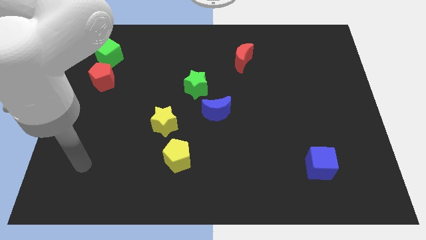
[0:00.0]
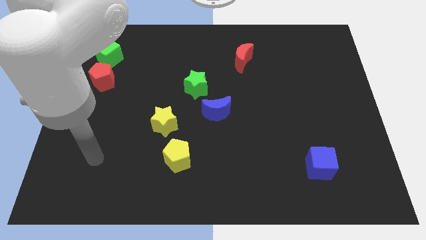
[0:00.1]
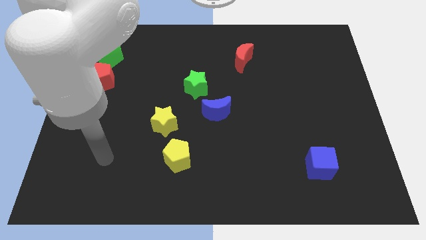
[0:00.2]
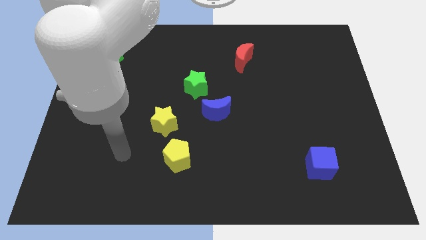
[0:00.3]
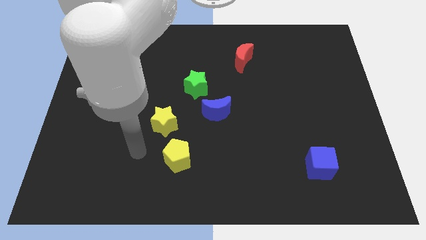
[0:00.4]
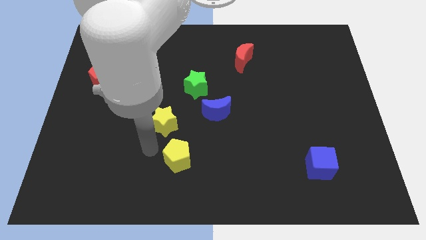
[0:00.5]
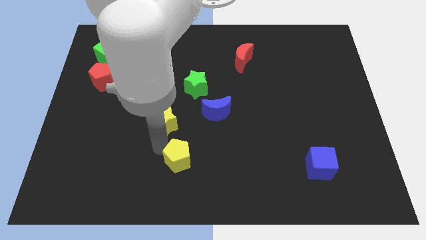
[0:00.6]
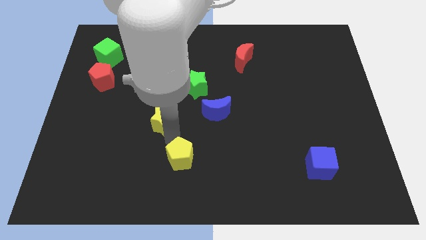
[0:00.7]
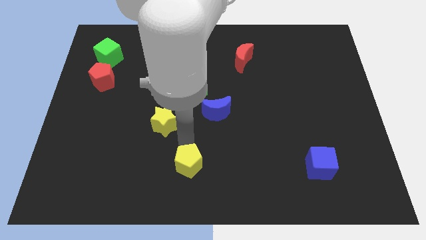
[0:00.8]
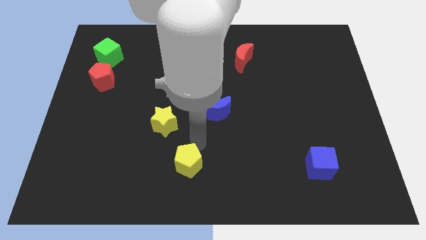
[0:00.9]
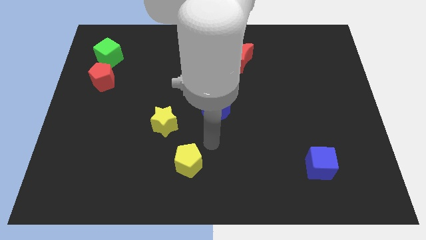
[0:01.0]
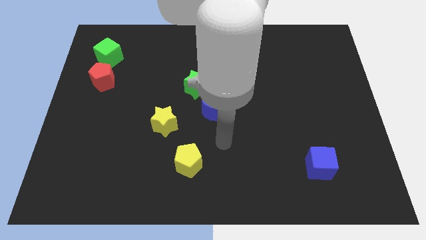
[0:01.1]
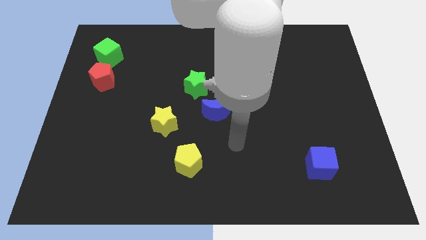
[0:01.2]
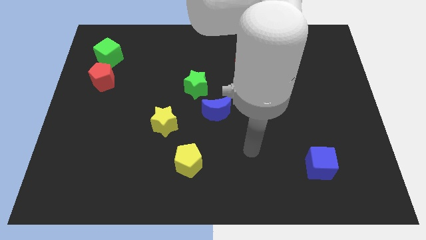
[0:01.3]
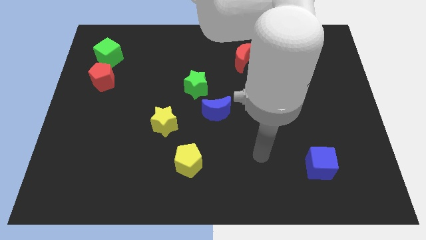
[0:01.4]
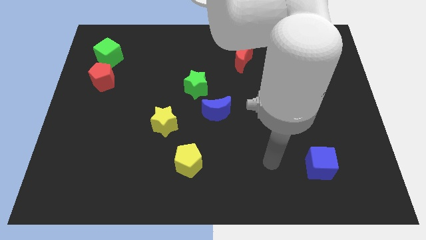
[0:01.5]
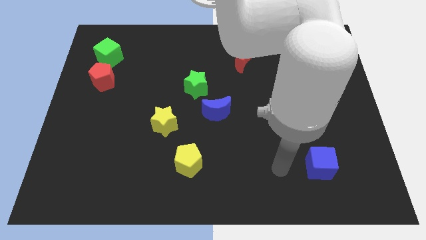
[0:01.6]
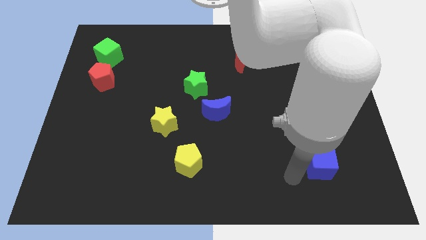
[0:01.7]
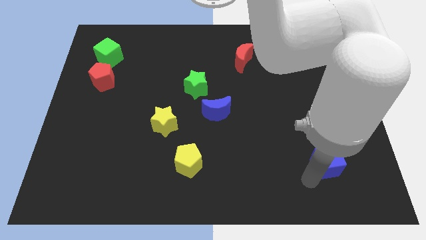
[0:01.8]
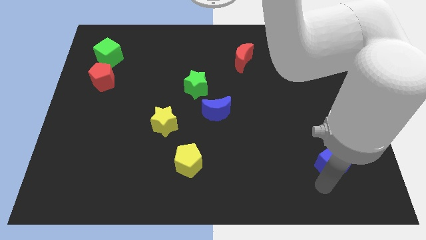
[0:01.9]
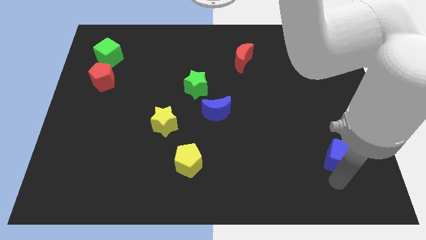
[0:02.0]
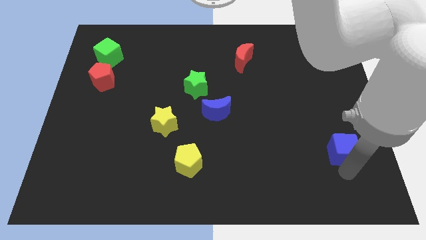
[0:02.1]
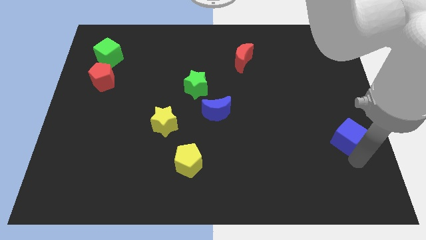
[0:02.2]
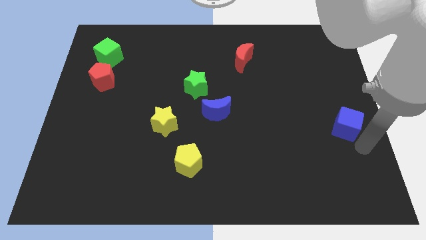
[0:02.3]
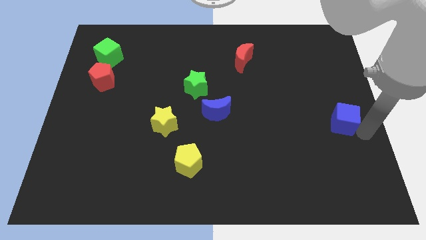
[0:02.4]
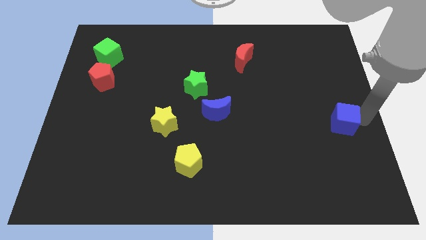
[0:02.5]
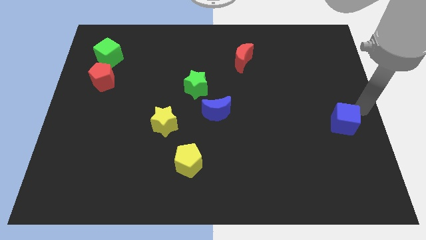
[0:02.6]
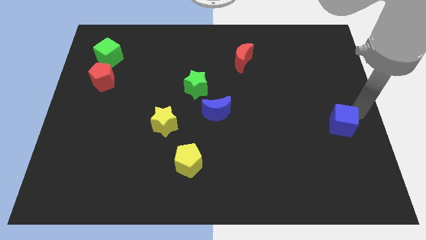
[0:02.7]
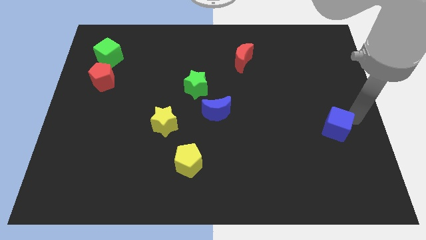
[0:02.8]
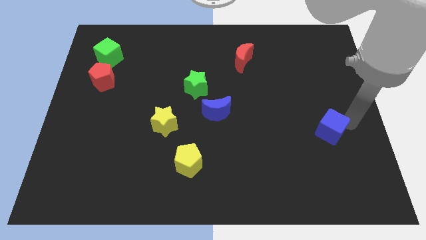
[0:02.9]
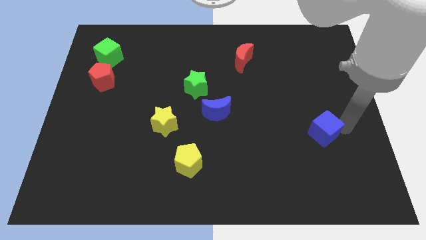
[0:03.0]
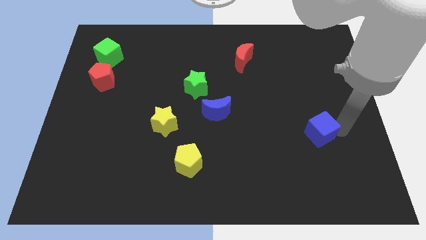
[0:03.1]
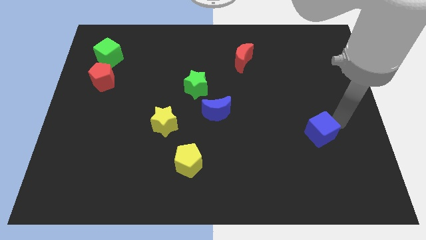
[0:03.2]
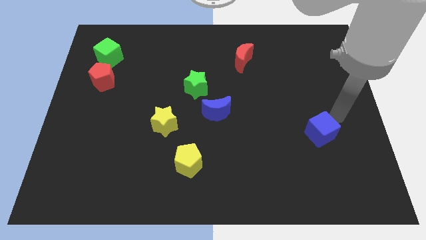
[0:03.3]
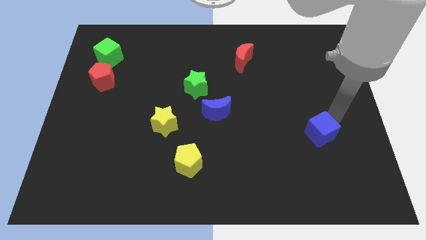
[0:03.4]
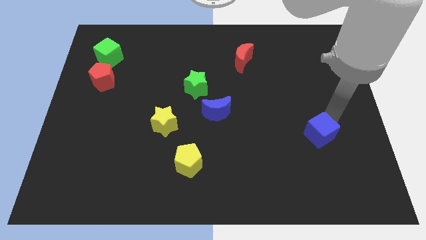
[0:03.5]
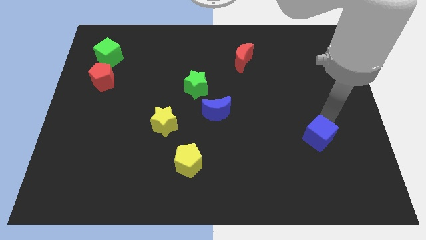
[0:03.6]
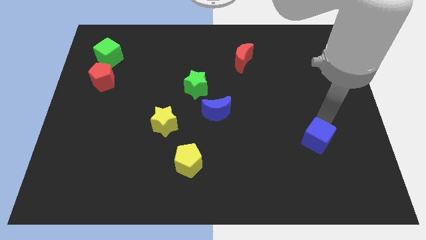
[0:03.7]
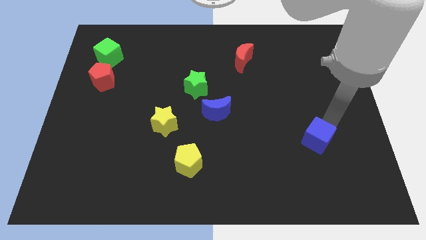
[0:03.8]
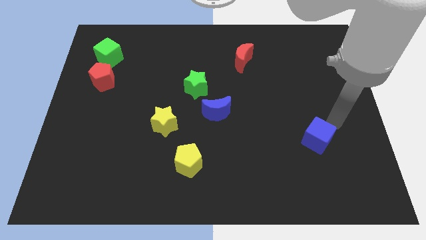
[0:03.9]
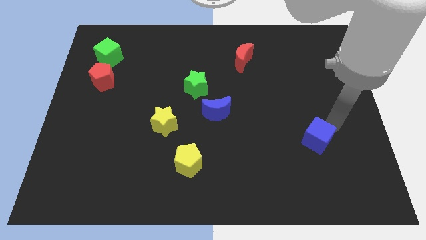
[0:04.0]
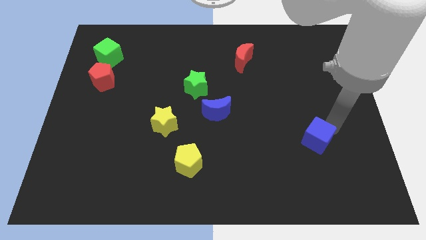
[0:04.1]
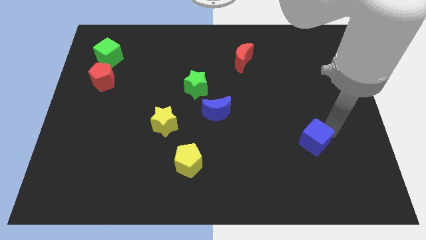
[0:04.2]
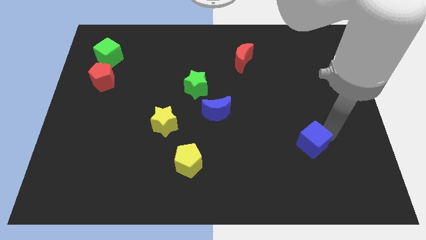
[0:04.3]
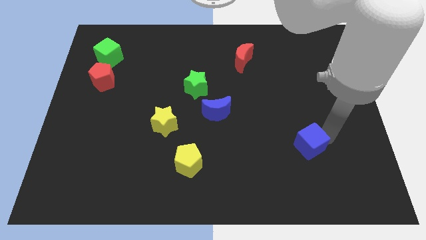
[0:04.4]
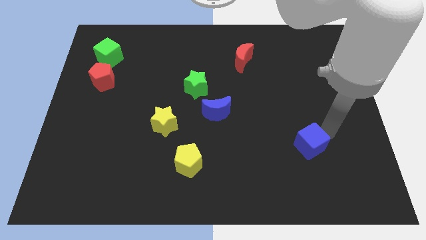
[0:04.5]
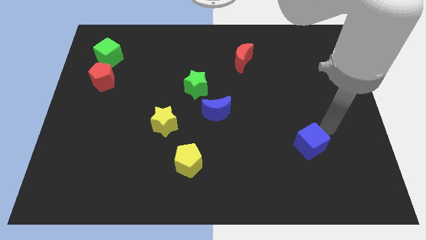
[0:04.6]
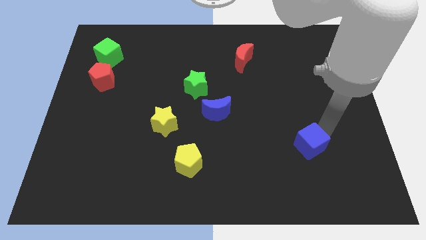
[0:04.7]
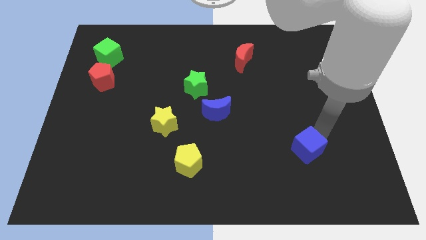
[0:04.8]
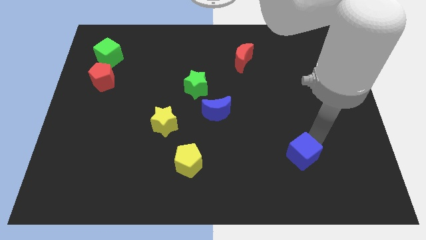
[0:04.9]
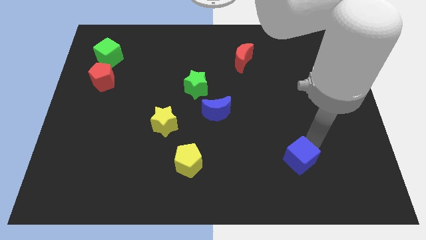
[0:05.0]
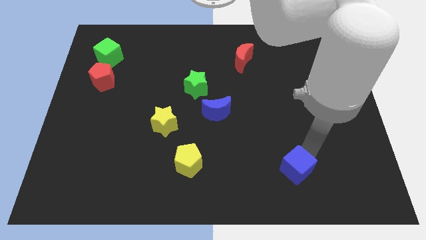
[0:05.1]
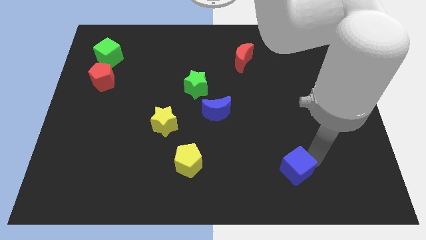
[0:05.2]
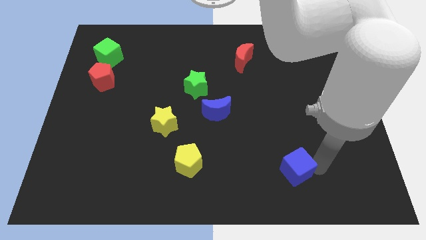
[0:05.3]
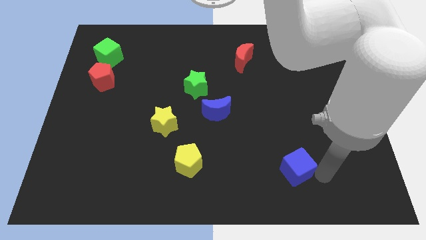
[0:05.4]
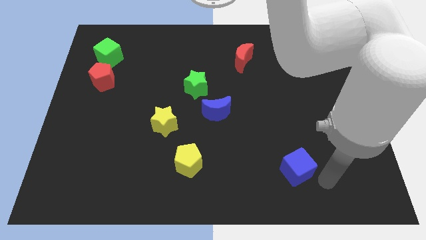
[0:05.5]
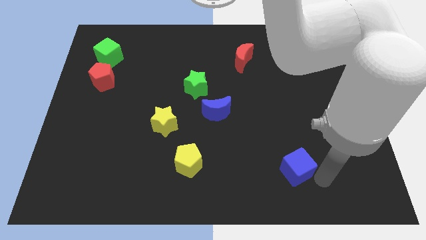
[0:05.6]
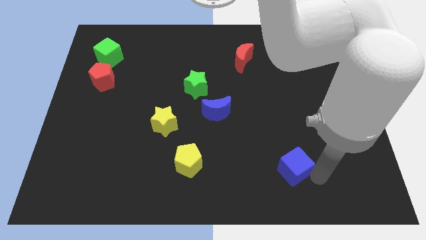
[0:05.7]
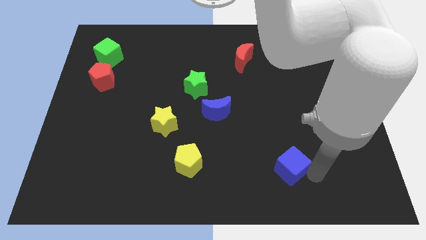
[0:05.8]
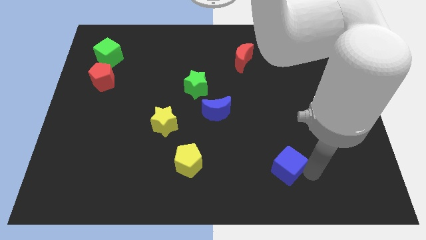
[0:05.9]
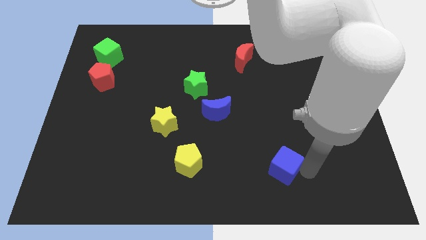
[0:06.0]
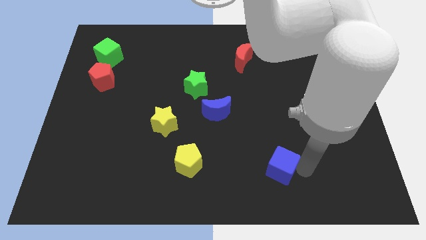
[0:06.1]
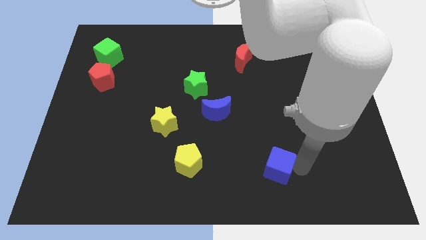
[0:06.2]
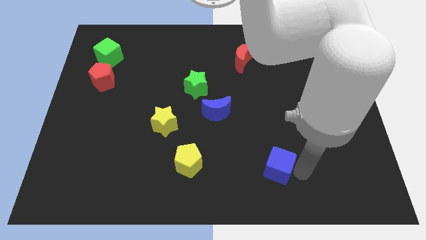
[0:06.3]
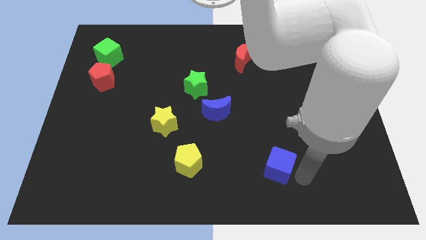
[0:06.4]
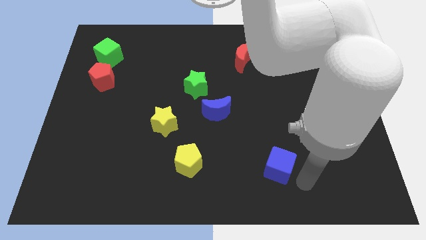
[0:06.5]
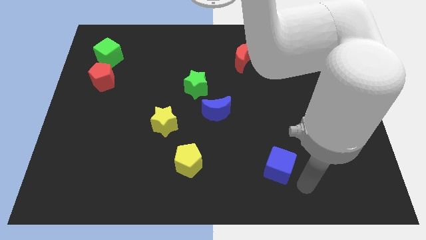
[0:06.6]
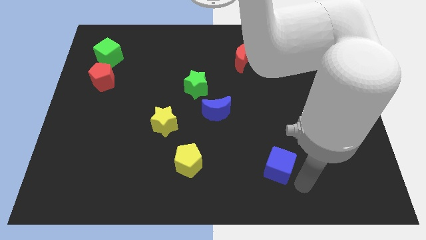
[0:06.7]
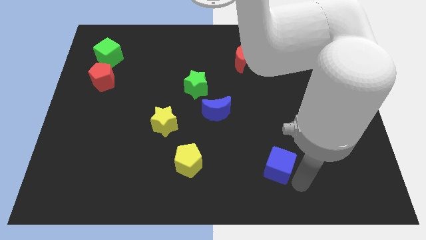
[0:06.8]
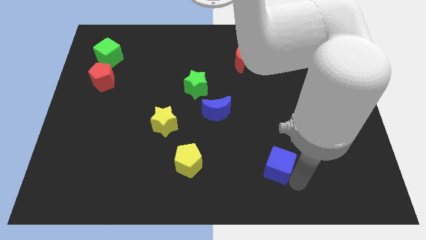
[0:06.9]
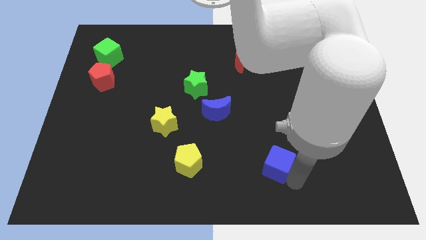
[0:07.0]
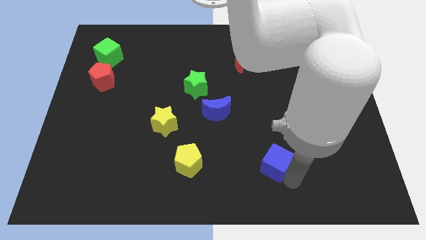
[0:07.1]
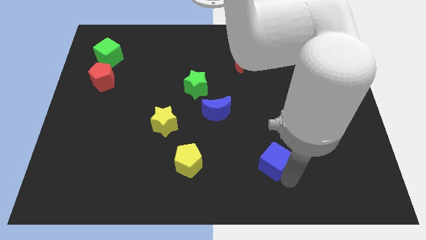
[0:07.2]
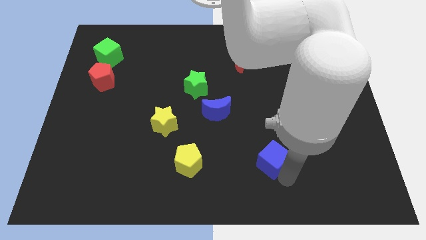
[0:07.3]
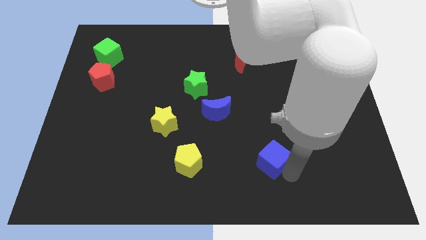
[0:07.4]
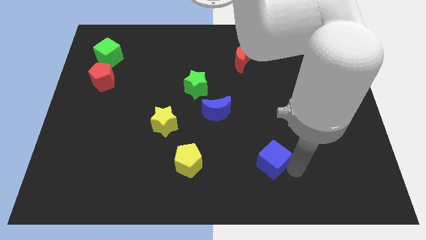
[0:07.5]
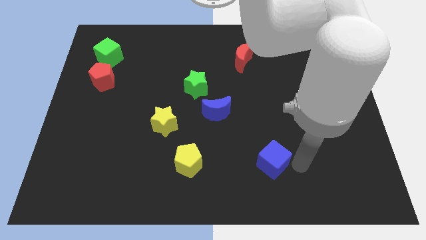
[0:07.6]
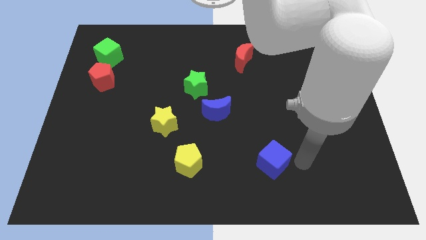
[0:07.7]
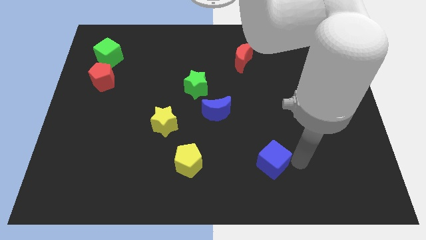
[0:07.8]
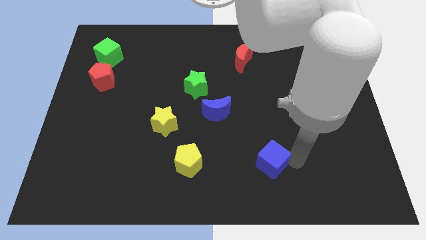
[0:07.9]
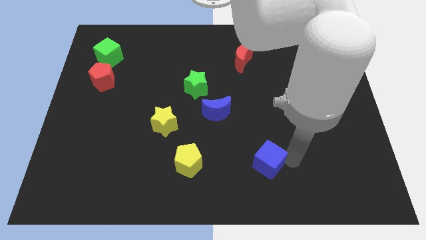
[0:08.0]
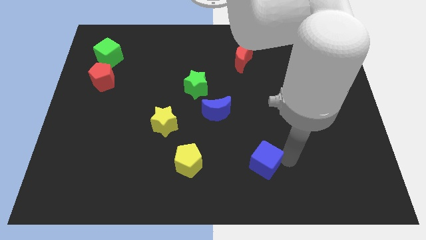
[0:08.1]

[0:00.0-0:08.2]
push the blue cube to the right side of the yellow pentagon
